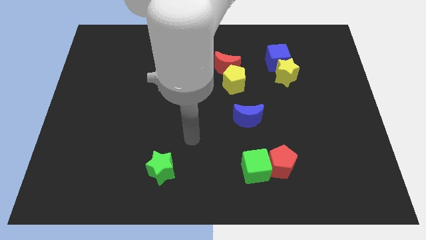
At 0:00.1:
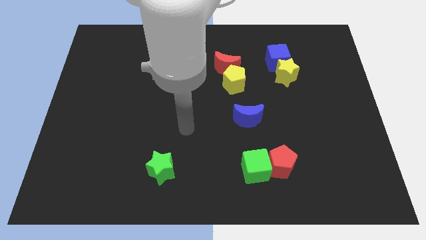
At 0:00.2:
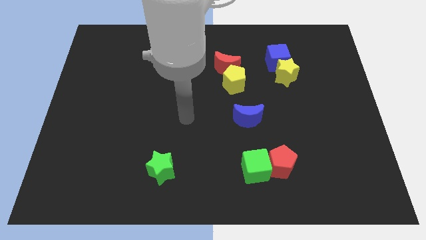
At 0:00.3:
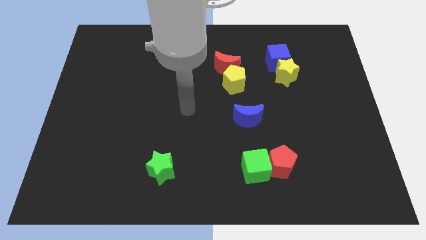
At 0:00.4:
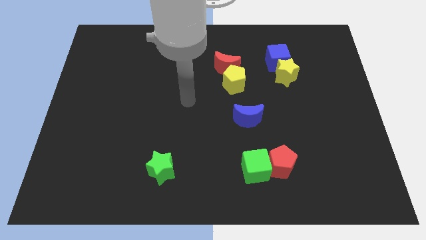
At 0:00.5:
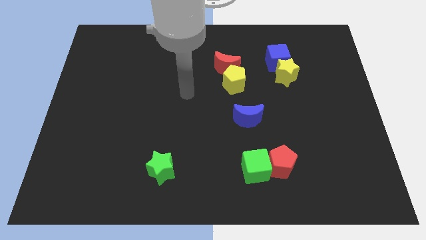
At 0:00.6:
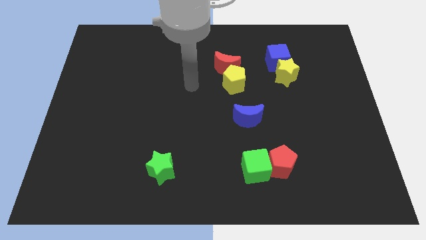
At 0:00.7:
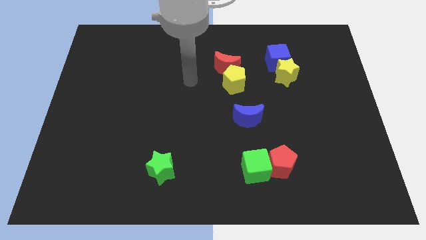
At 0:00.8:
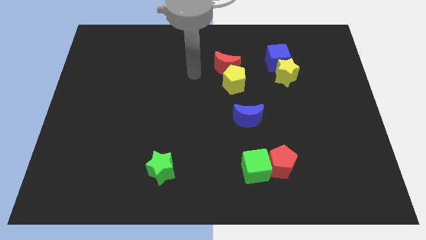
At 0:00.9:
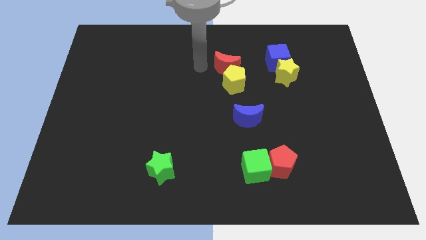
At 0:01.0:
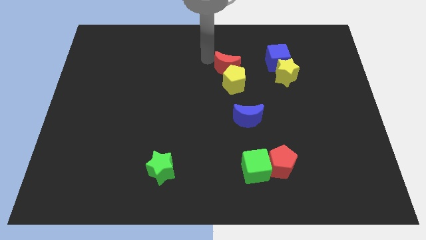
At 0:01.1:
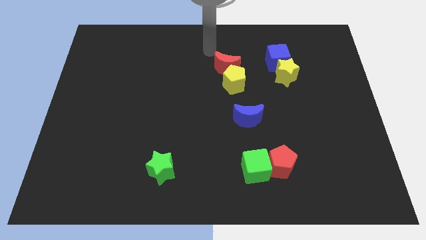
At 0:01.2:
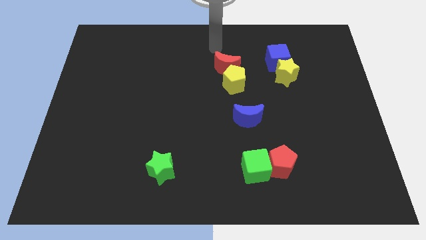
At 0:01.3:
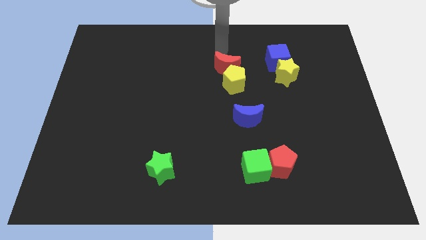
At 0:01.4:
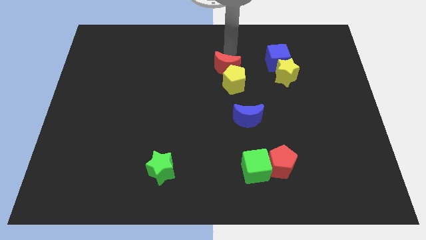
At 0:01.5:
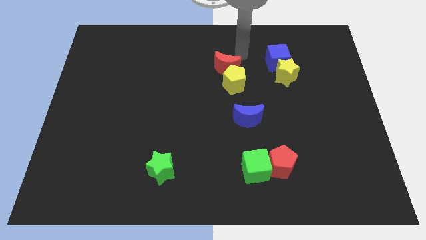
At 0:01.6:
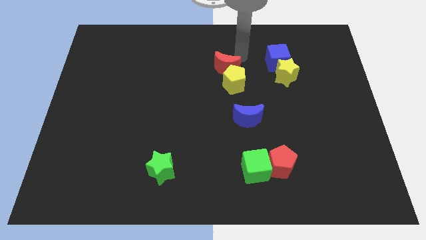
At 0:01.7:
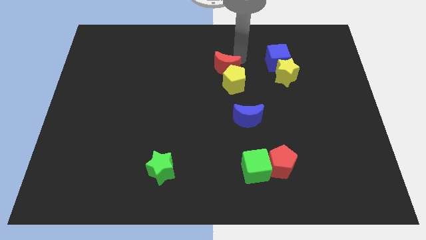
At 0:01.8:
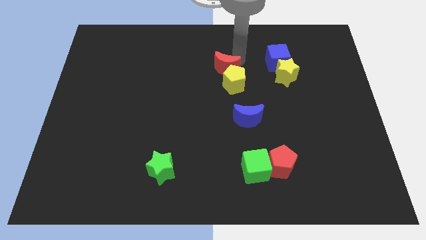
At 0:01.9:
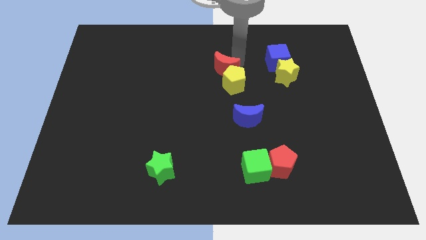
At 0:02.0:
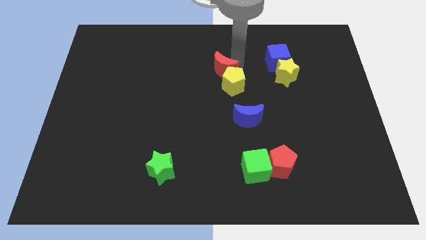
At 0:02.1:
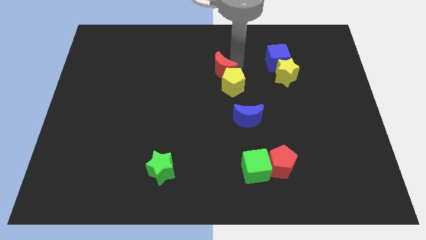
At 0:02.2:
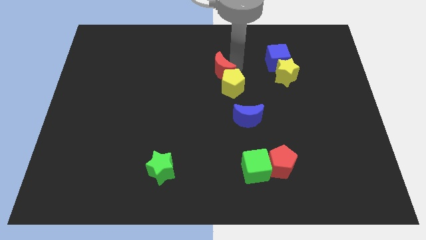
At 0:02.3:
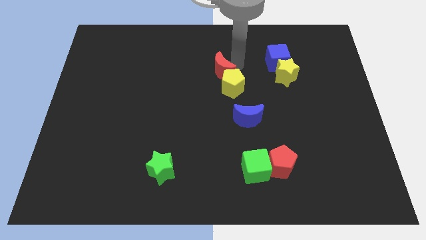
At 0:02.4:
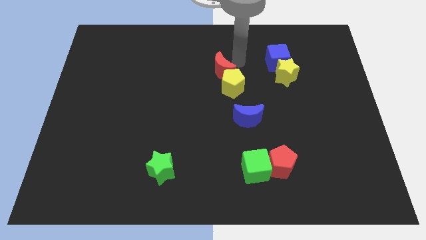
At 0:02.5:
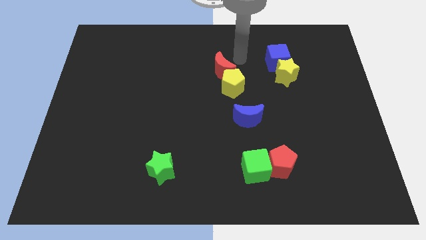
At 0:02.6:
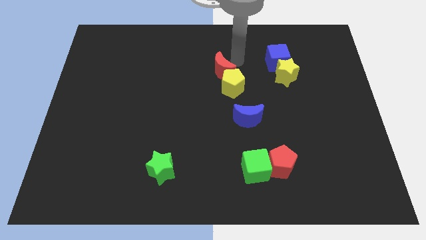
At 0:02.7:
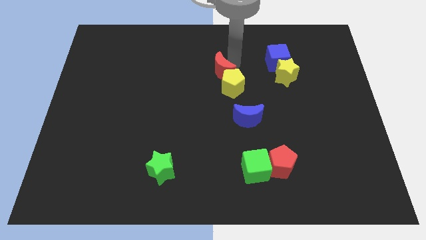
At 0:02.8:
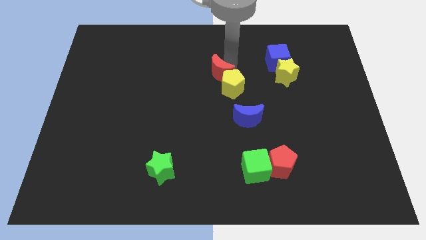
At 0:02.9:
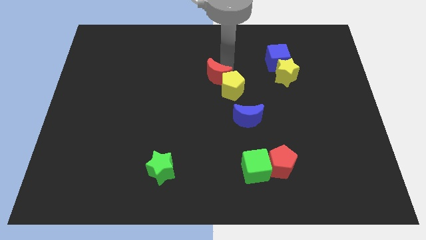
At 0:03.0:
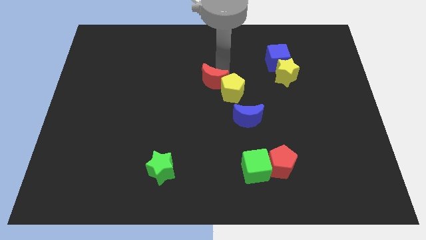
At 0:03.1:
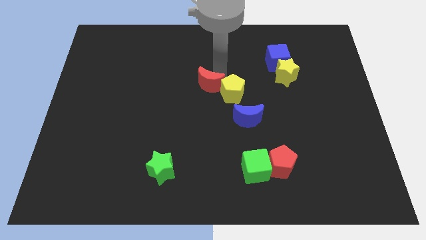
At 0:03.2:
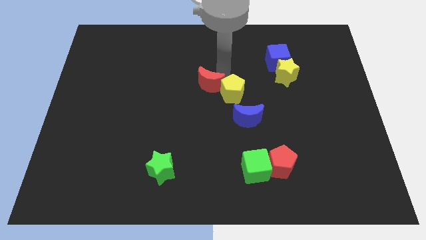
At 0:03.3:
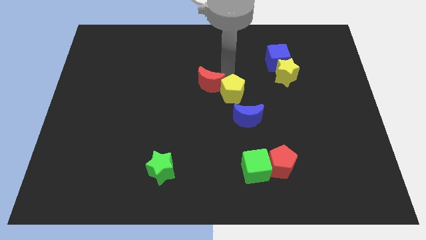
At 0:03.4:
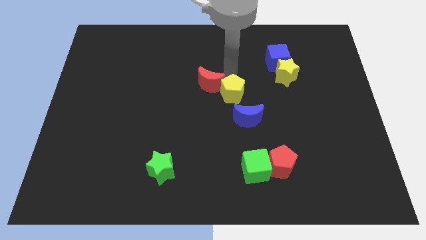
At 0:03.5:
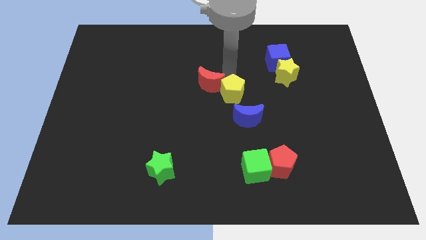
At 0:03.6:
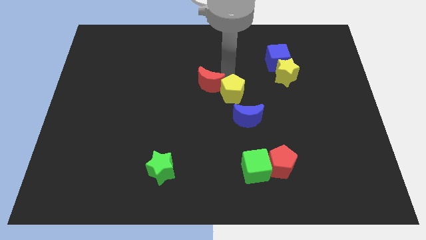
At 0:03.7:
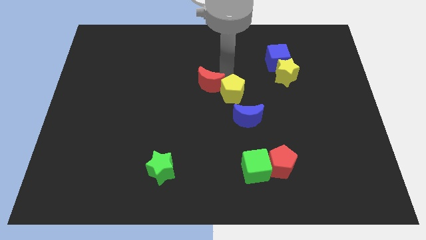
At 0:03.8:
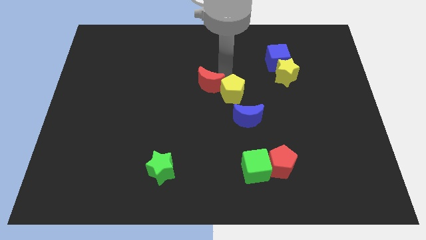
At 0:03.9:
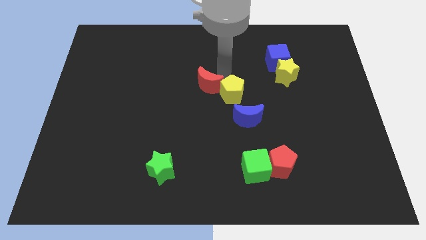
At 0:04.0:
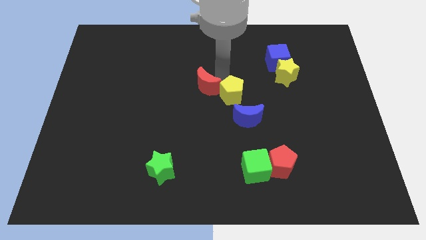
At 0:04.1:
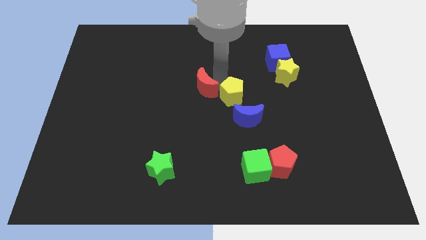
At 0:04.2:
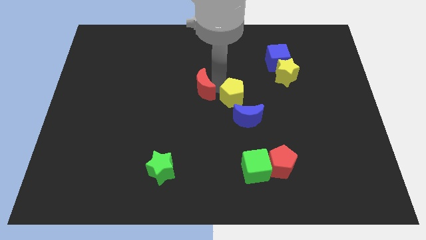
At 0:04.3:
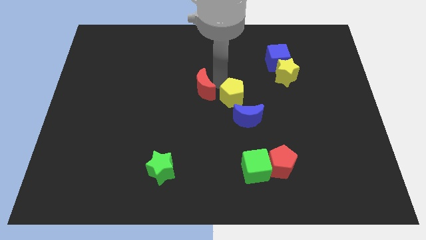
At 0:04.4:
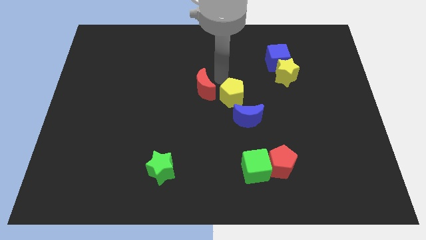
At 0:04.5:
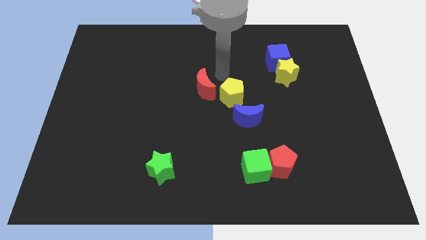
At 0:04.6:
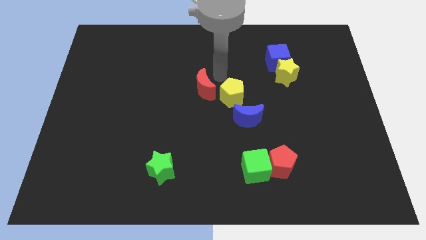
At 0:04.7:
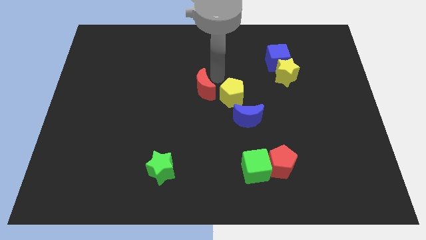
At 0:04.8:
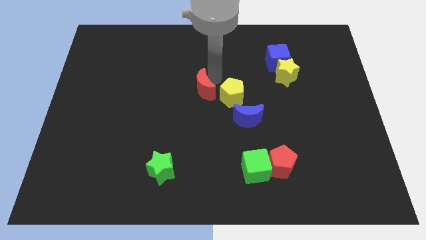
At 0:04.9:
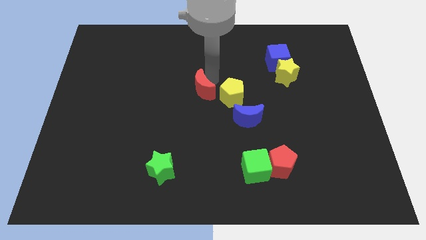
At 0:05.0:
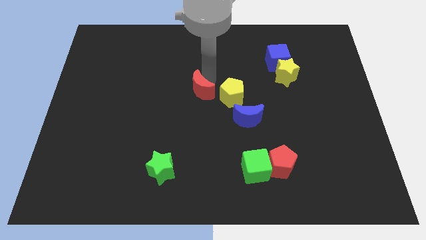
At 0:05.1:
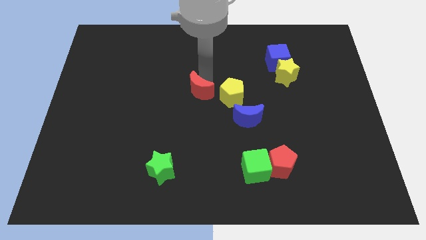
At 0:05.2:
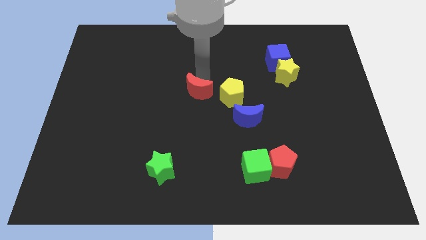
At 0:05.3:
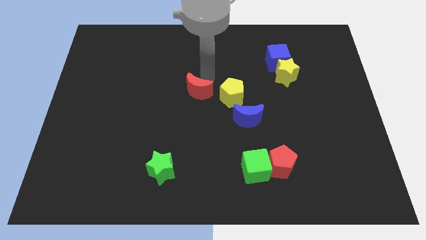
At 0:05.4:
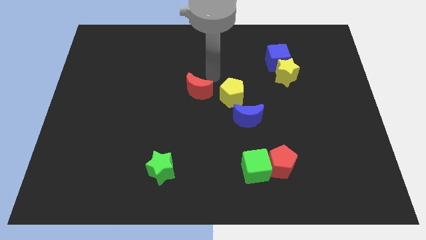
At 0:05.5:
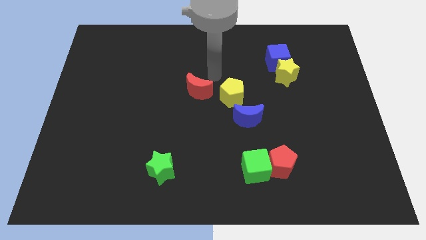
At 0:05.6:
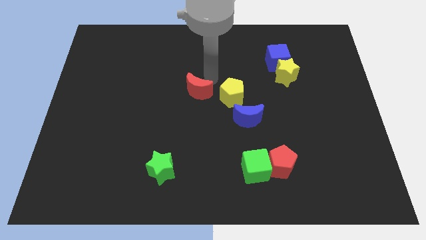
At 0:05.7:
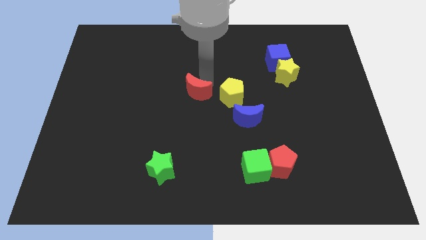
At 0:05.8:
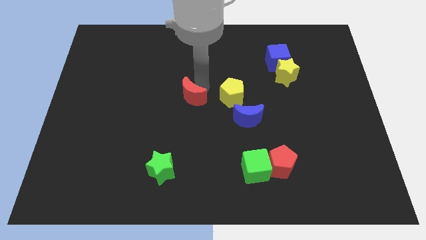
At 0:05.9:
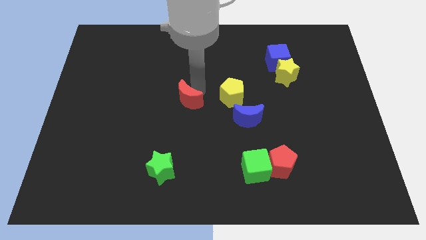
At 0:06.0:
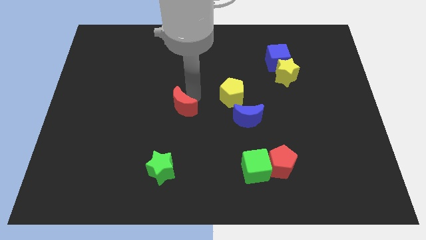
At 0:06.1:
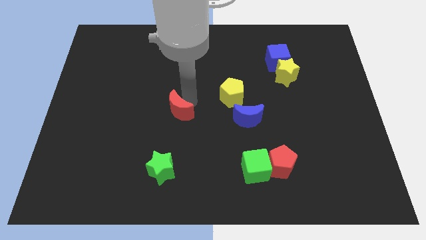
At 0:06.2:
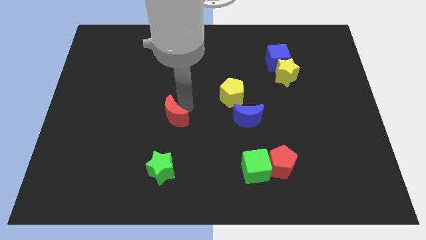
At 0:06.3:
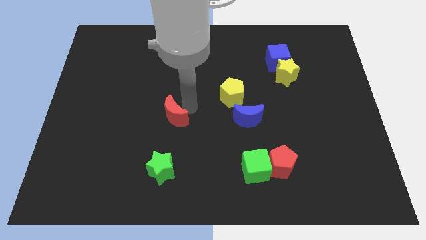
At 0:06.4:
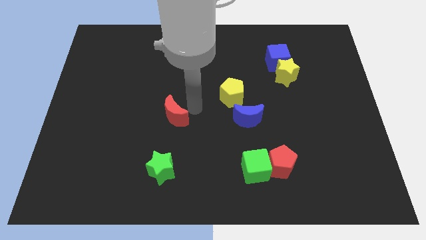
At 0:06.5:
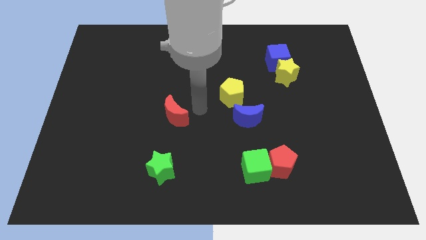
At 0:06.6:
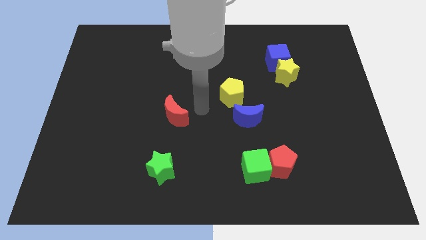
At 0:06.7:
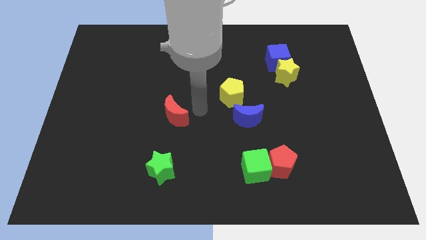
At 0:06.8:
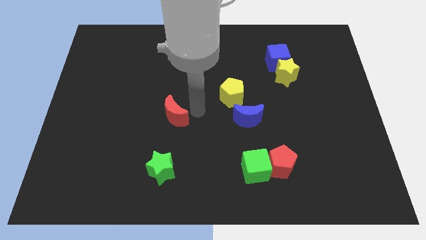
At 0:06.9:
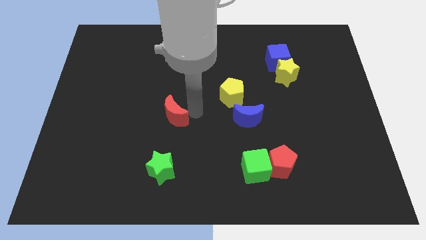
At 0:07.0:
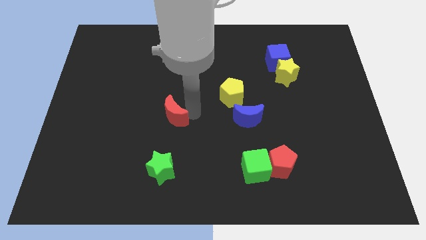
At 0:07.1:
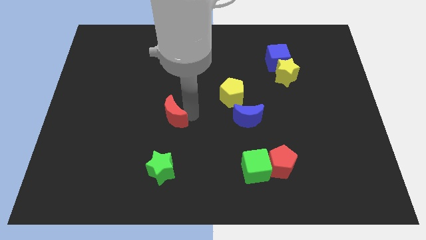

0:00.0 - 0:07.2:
push the red moon diagonally down and to the left

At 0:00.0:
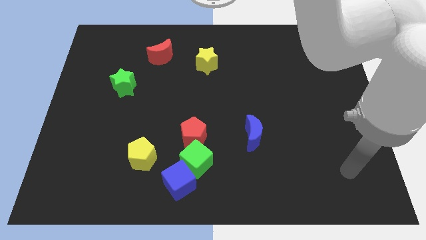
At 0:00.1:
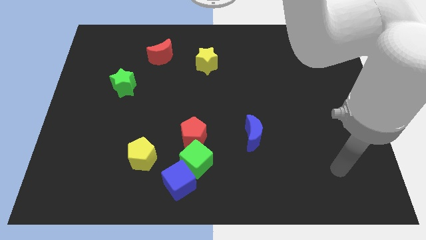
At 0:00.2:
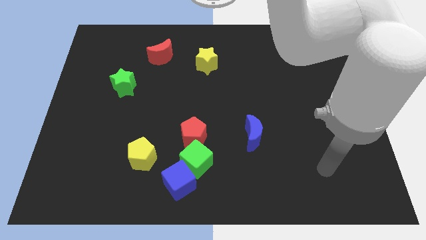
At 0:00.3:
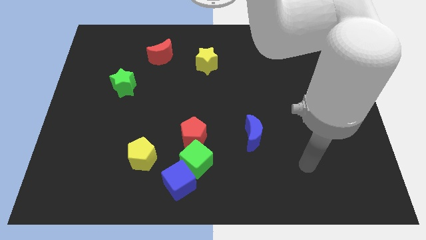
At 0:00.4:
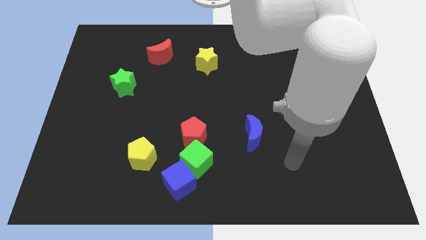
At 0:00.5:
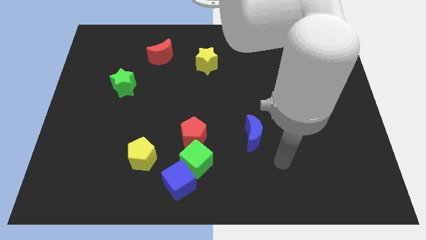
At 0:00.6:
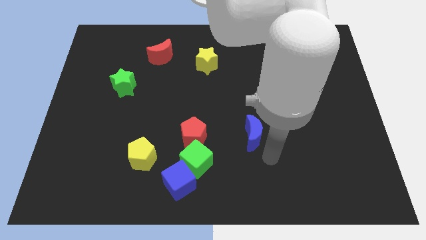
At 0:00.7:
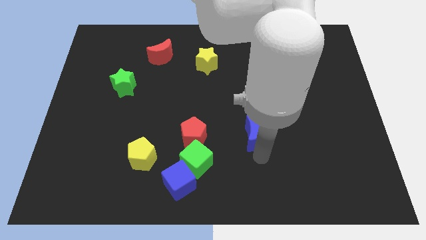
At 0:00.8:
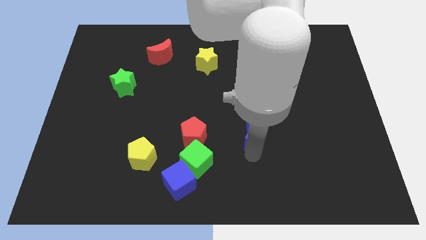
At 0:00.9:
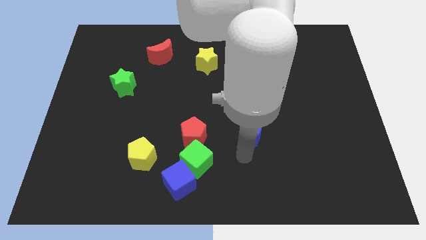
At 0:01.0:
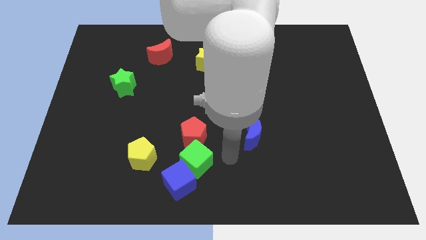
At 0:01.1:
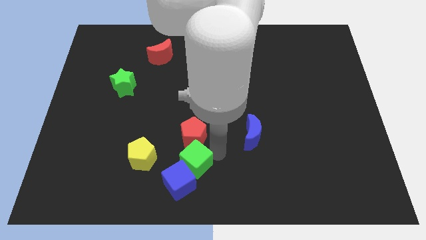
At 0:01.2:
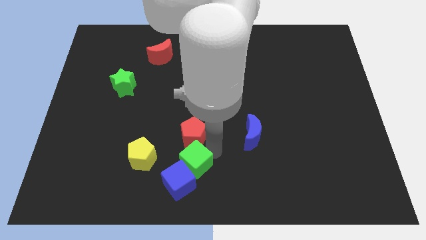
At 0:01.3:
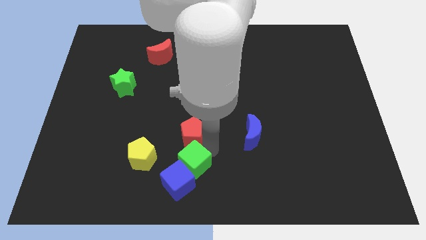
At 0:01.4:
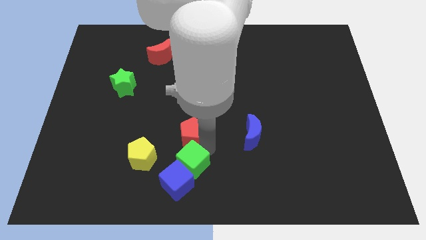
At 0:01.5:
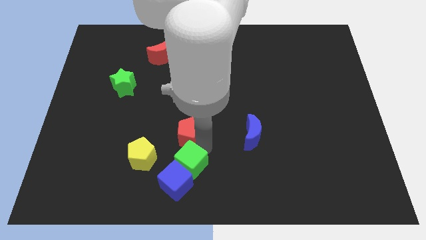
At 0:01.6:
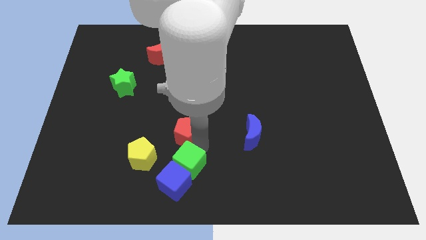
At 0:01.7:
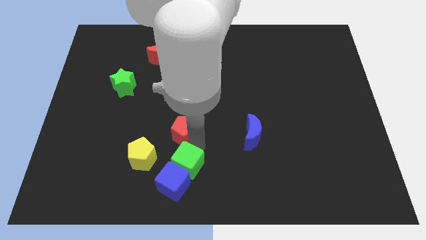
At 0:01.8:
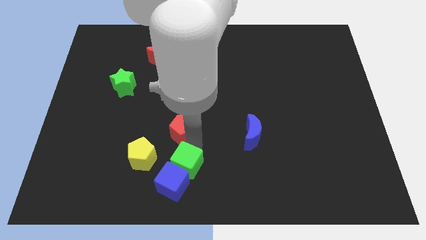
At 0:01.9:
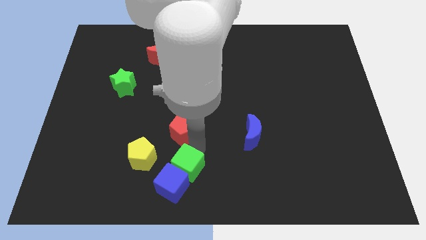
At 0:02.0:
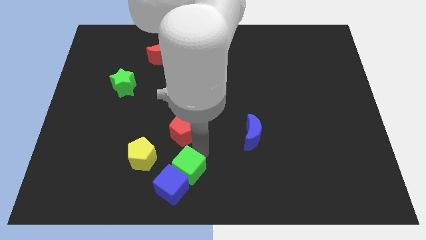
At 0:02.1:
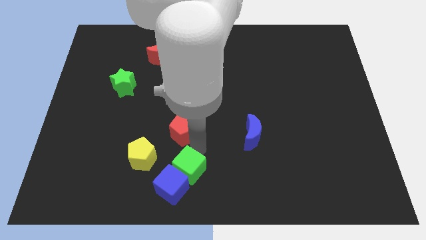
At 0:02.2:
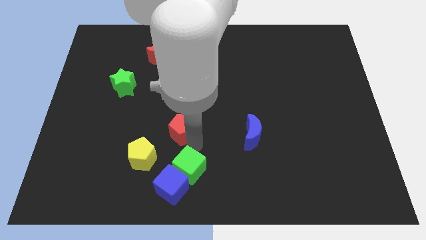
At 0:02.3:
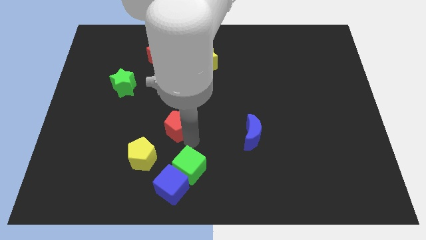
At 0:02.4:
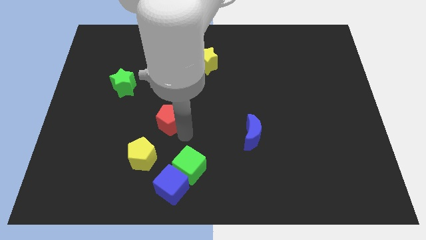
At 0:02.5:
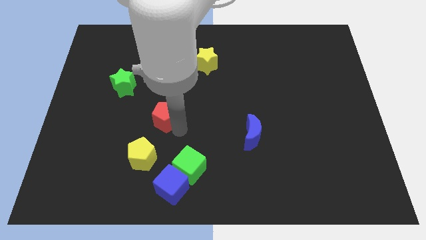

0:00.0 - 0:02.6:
slightly slide the red pentagon diagonally up and to the left
